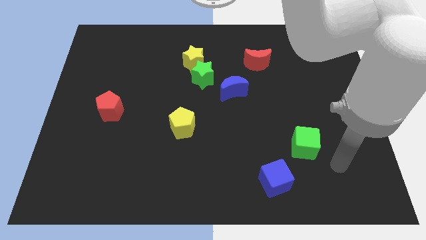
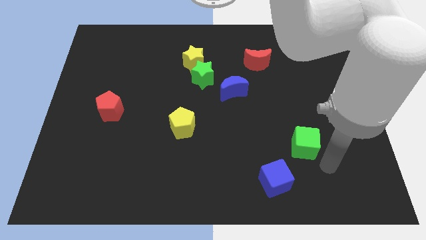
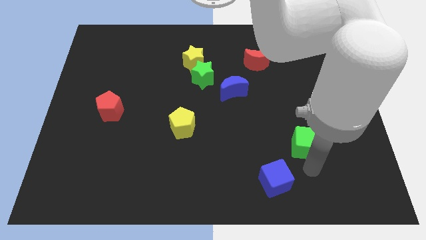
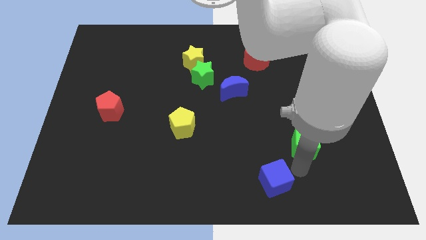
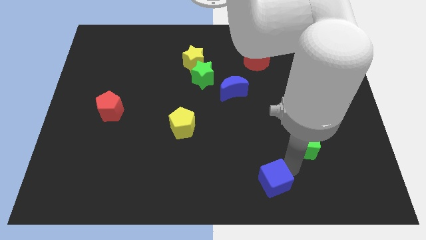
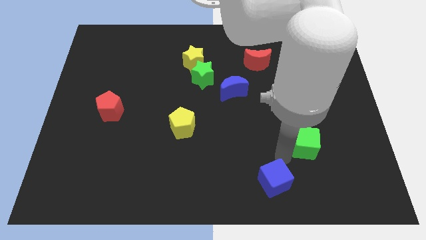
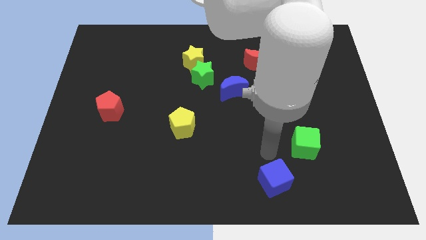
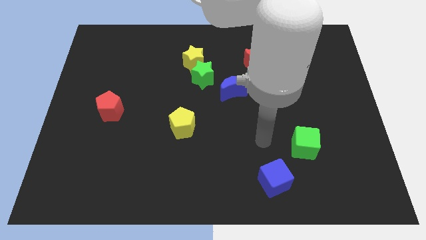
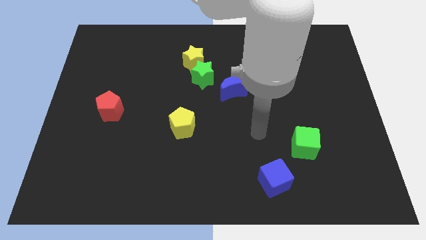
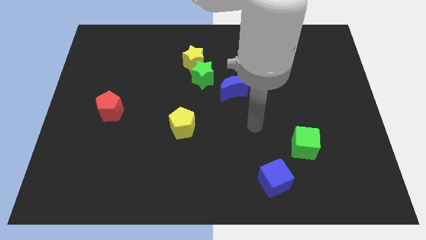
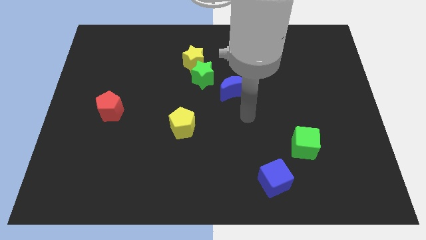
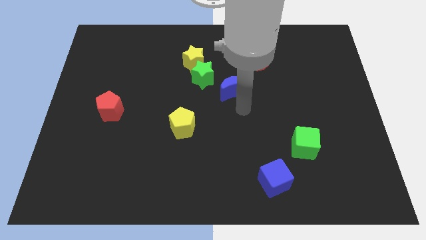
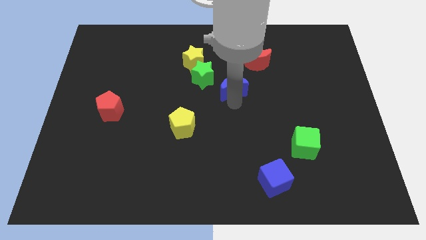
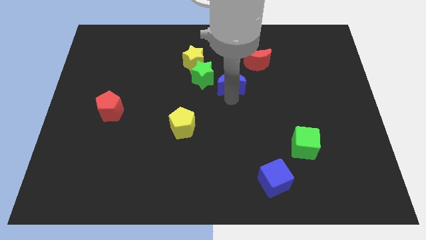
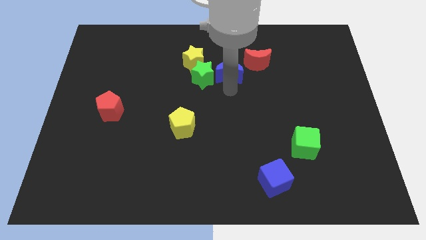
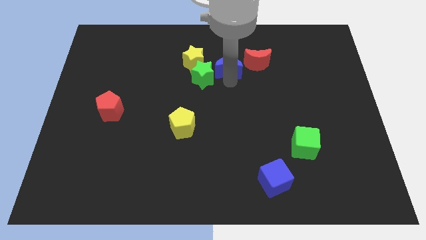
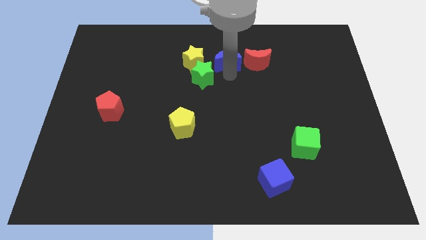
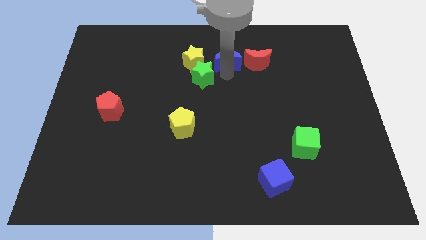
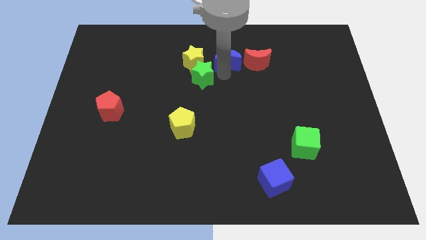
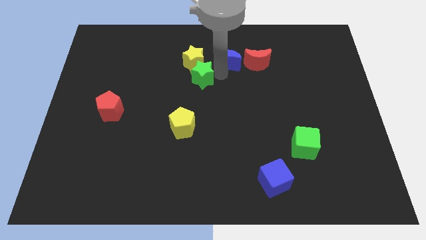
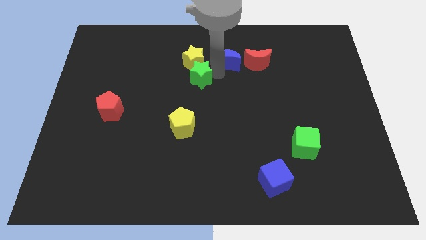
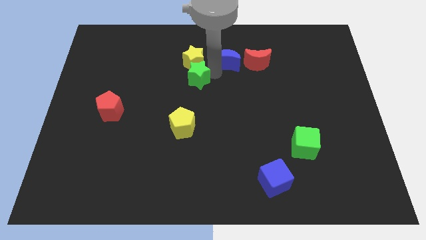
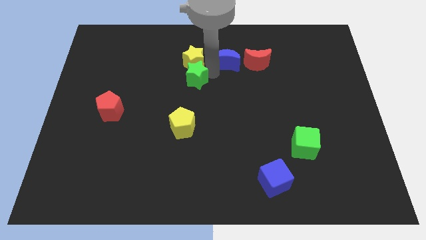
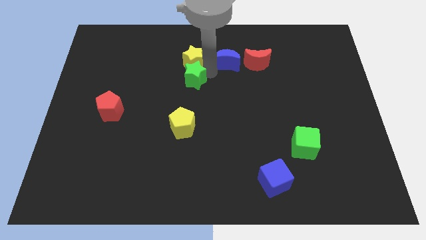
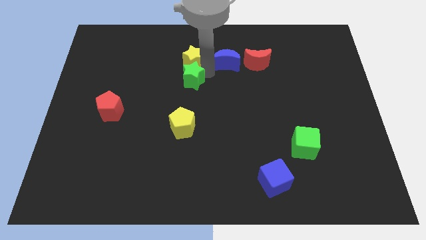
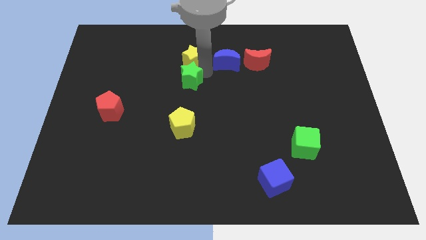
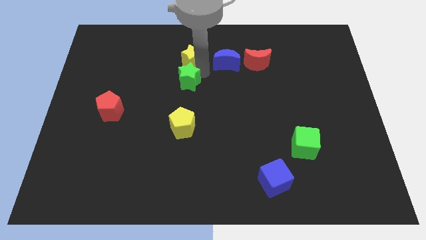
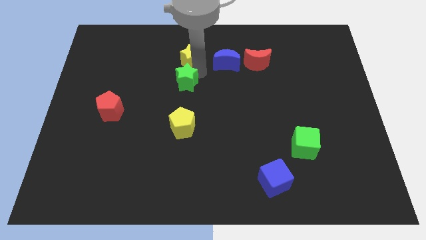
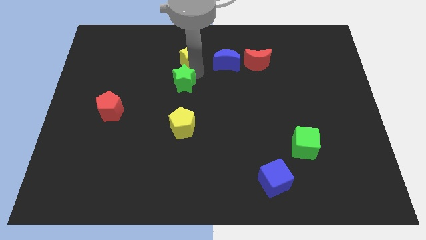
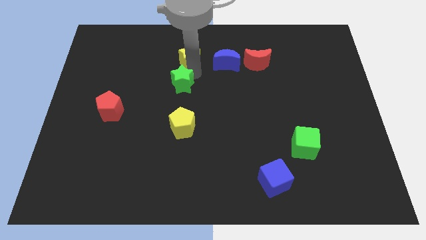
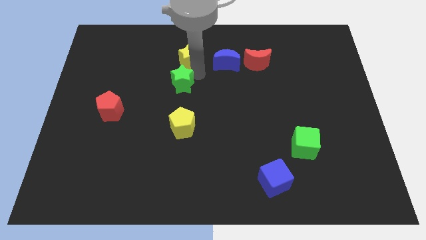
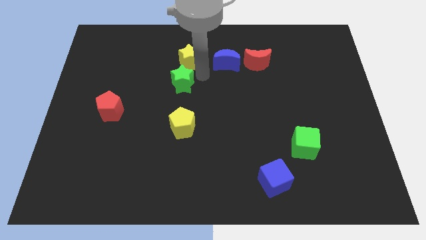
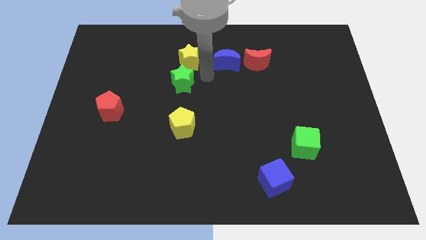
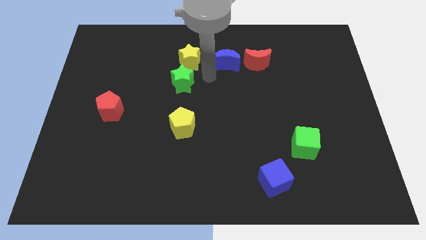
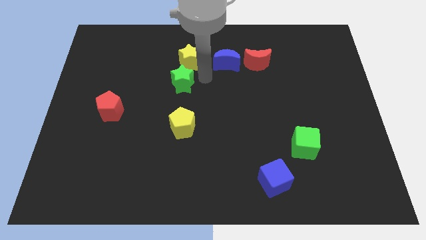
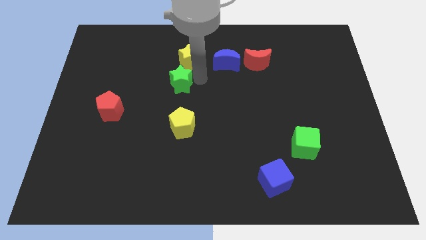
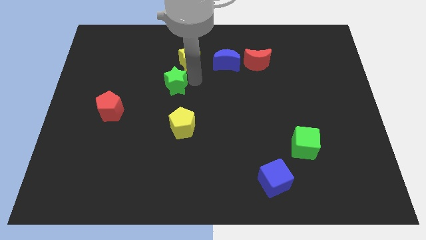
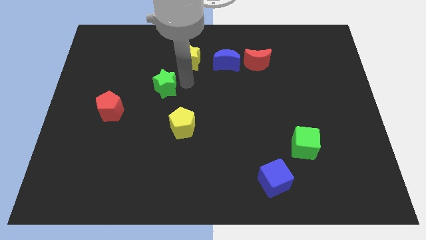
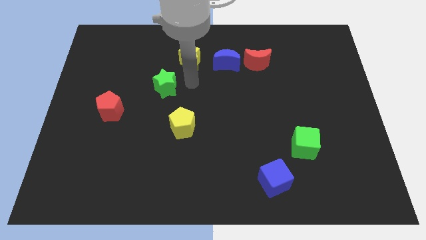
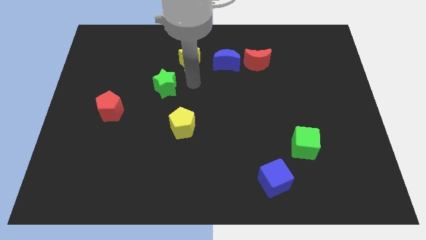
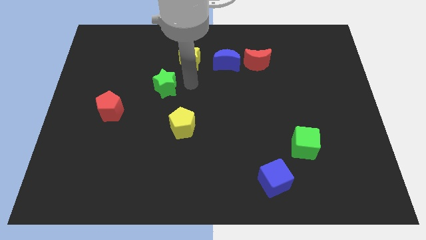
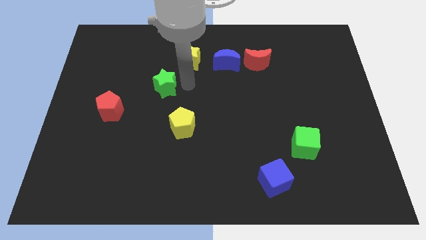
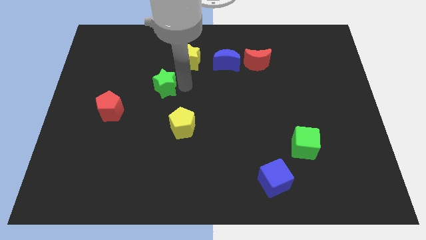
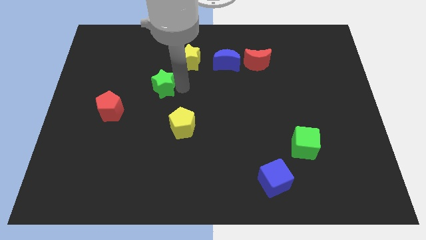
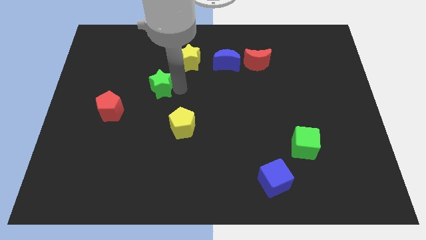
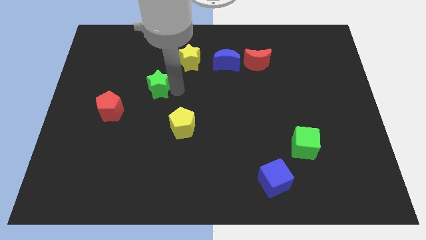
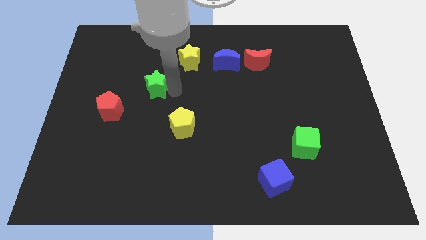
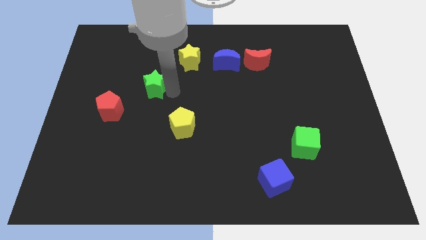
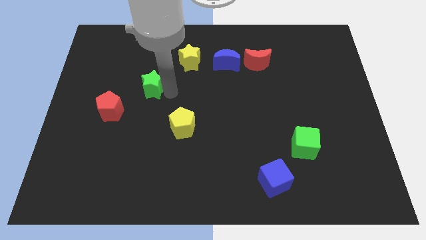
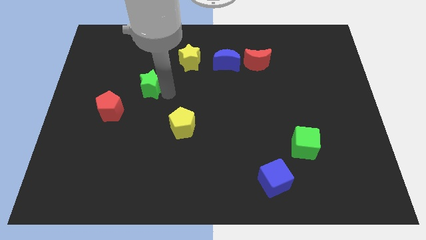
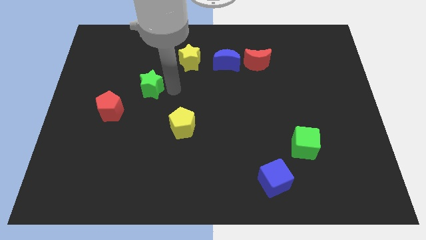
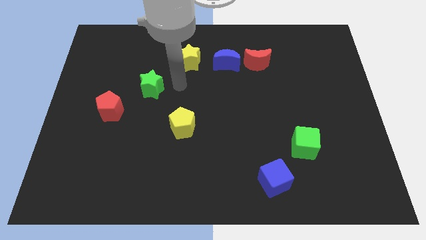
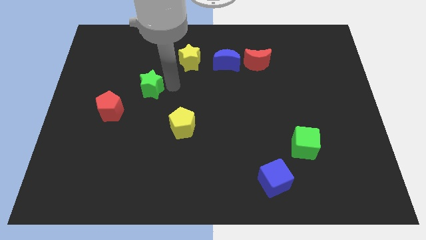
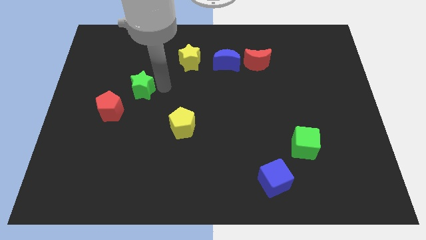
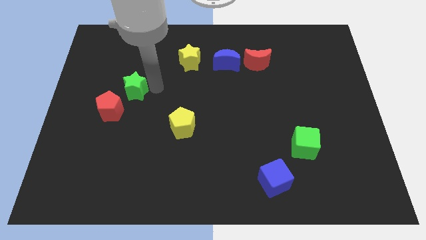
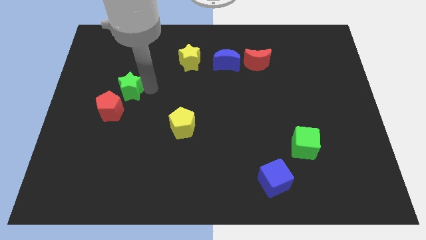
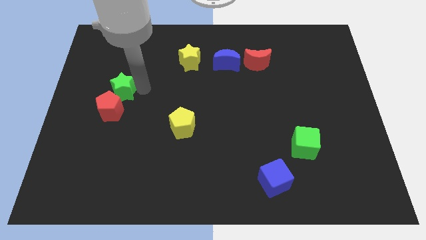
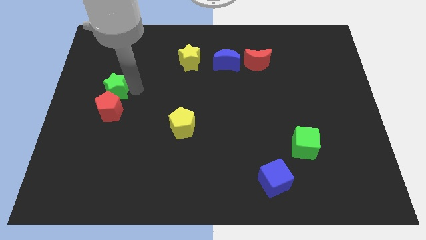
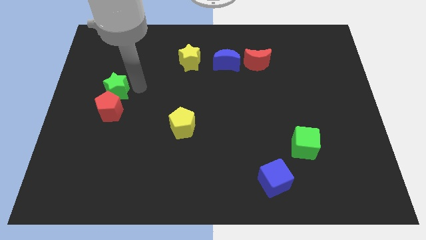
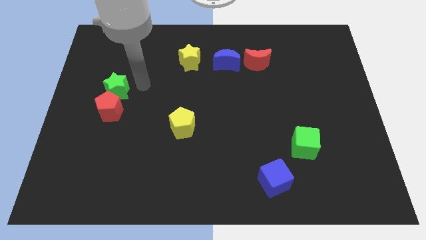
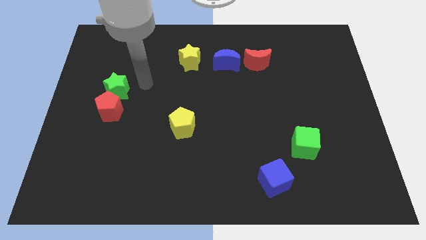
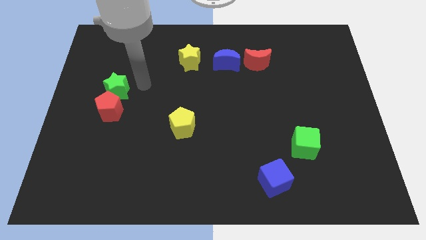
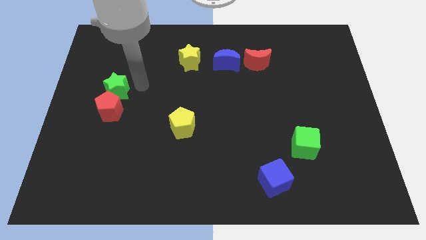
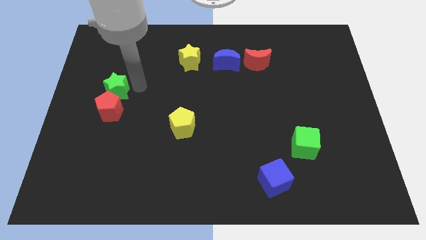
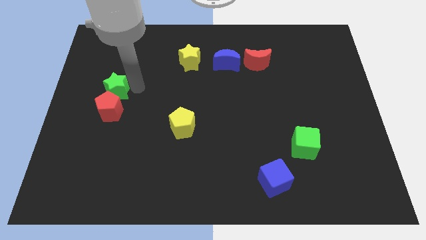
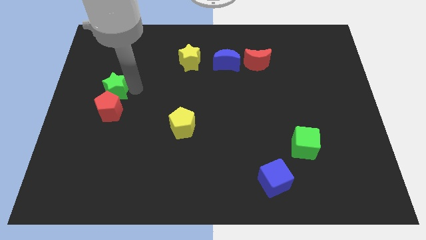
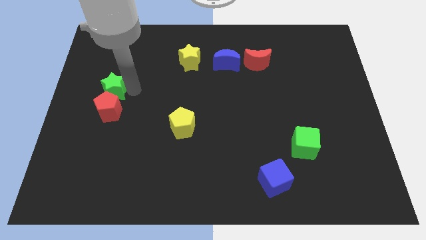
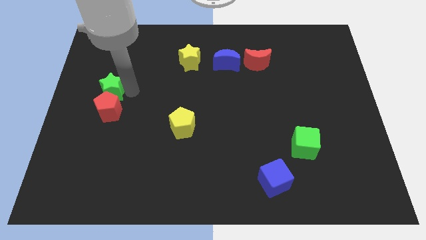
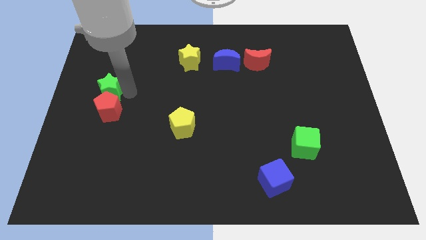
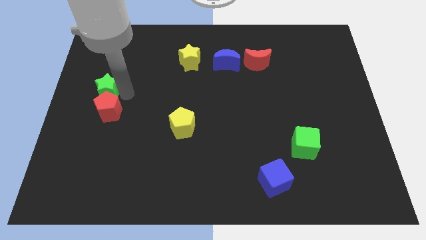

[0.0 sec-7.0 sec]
push the green star to the left side of the board

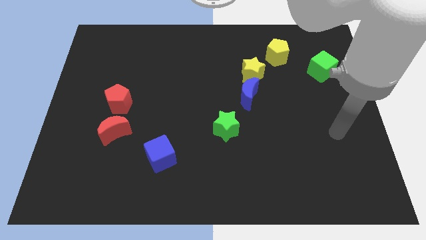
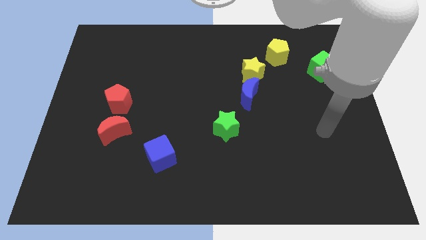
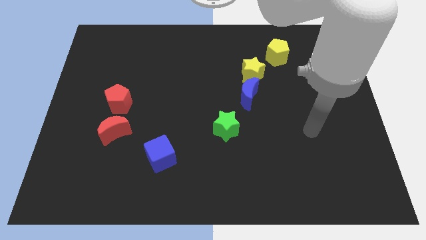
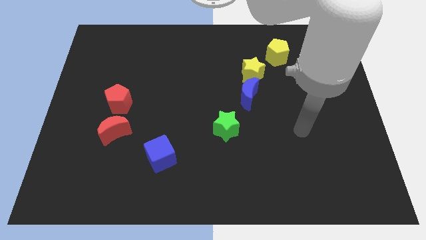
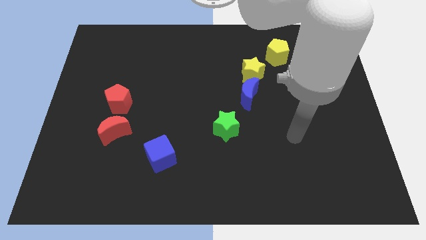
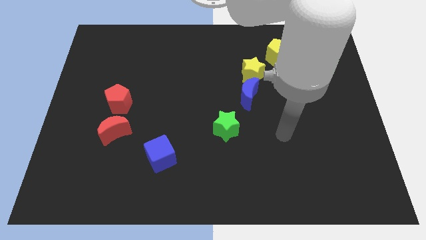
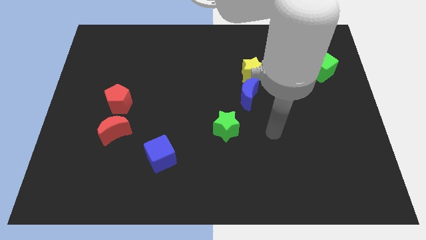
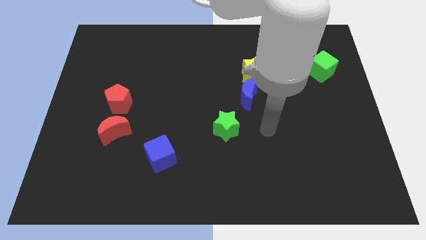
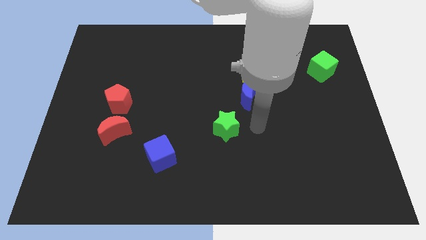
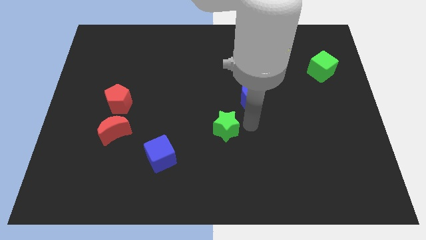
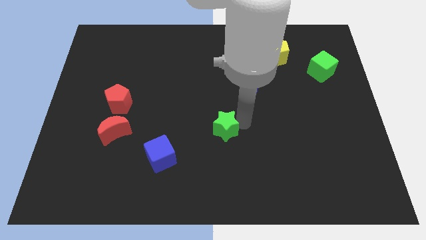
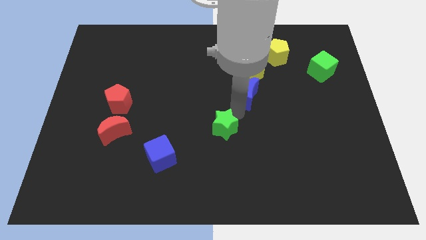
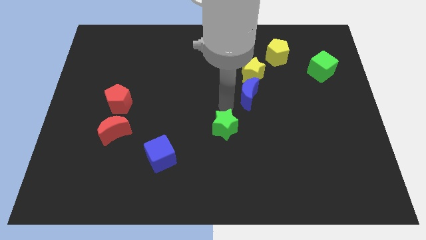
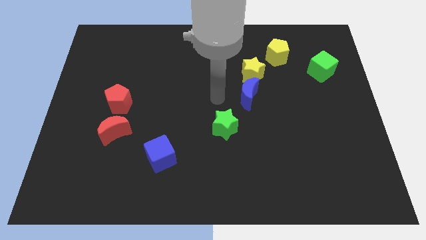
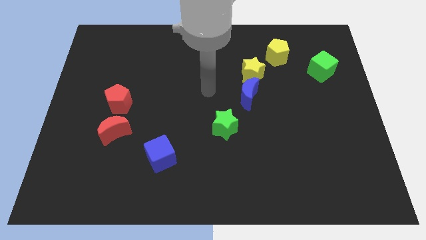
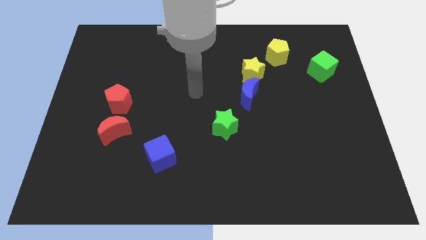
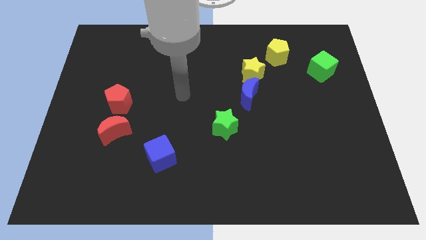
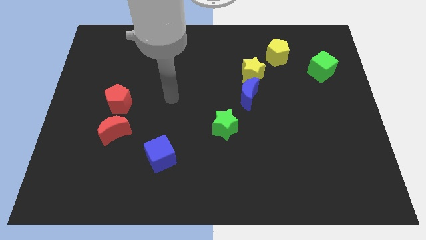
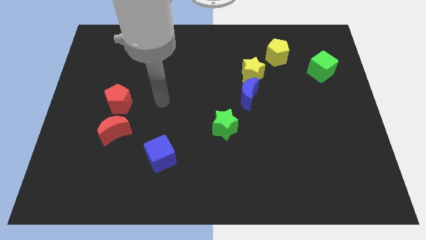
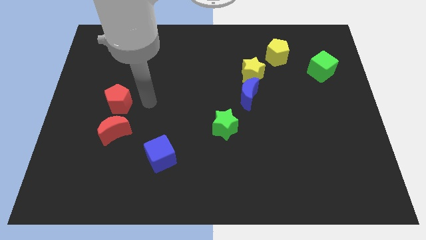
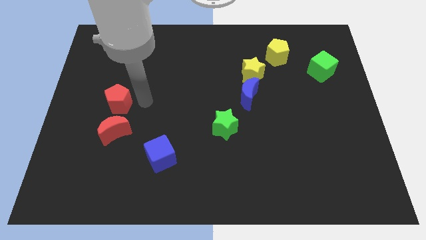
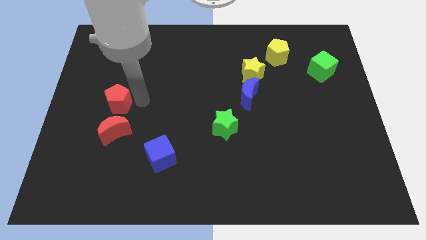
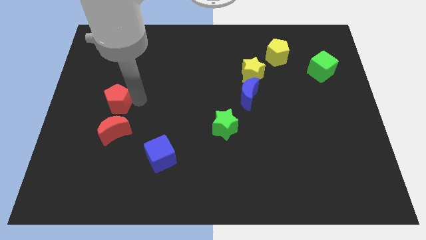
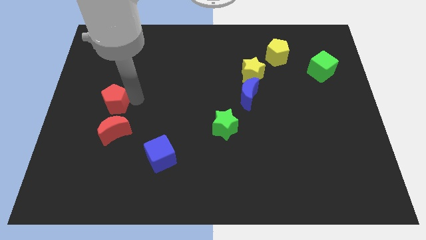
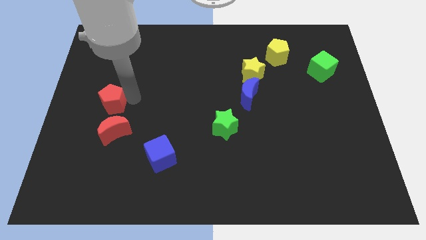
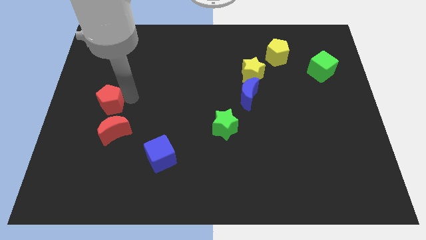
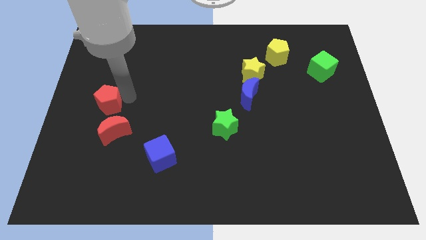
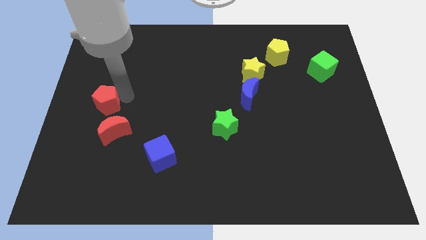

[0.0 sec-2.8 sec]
put the red pentagon to the center left
